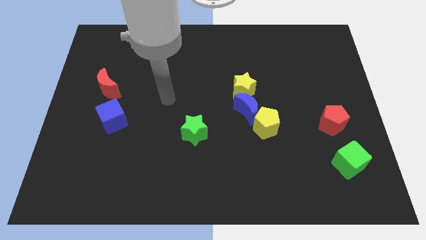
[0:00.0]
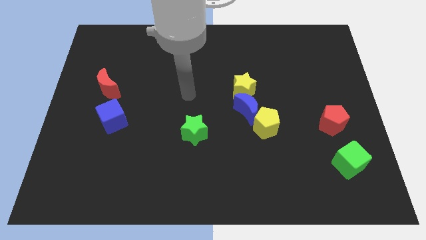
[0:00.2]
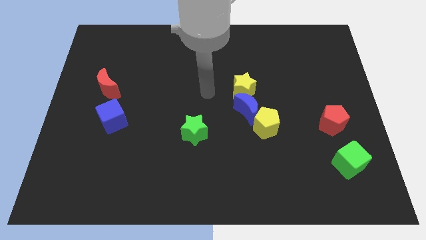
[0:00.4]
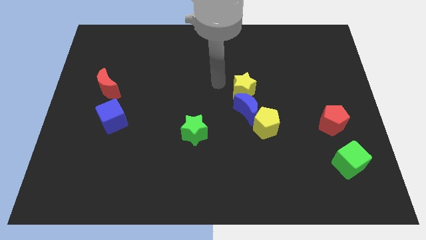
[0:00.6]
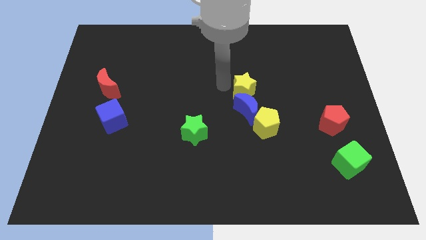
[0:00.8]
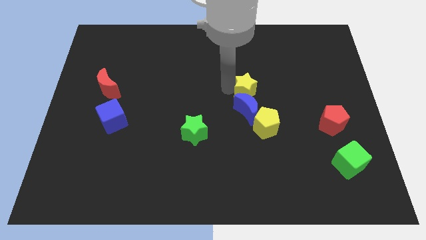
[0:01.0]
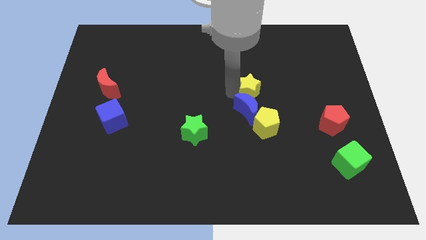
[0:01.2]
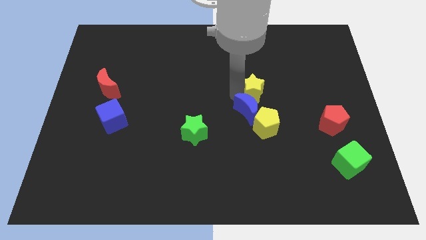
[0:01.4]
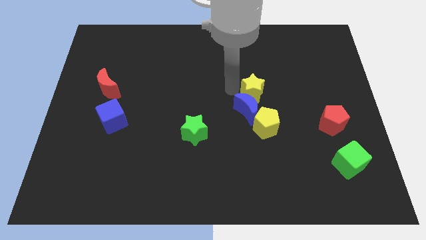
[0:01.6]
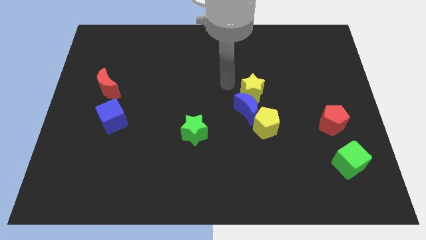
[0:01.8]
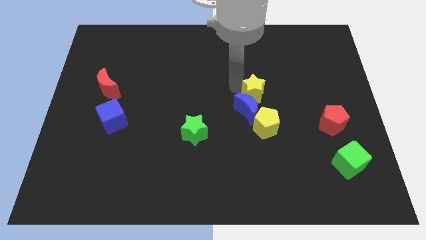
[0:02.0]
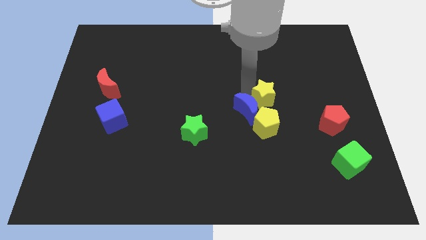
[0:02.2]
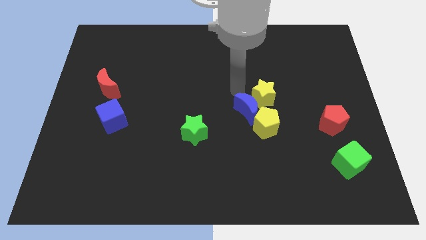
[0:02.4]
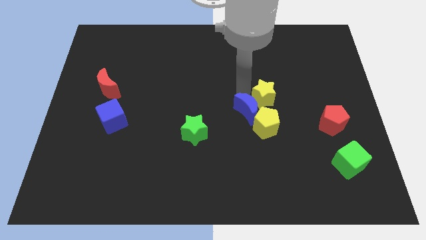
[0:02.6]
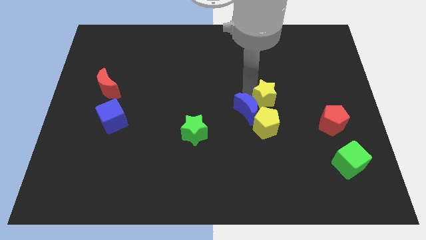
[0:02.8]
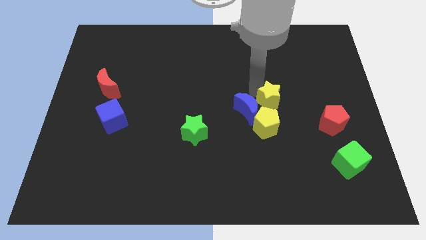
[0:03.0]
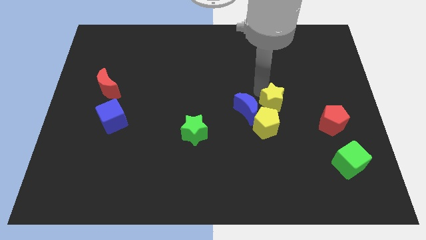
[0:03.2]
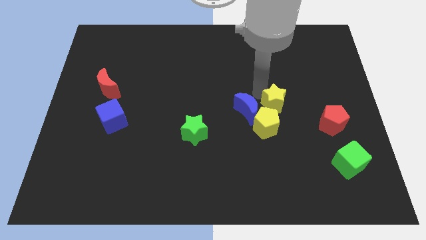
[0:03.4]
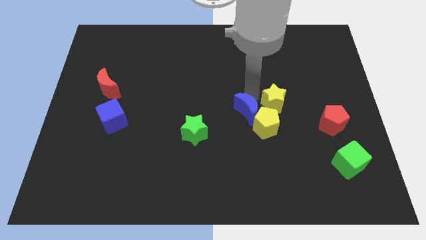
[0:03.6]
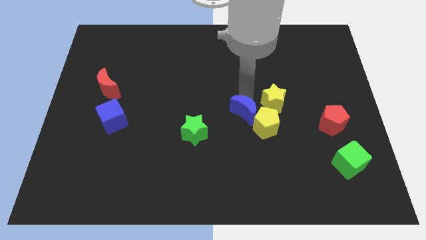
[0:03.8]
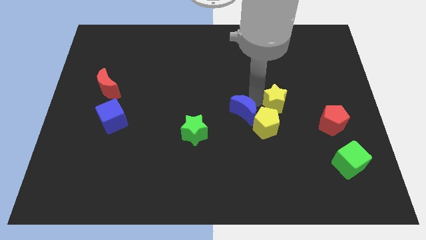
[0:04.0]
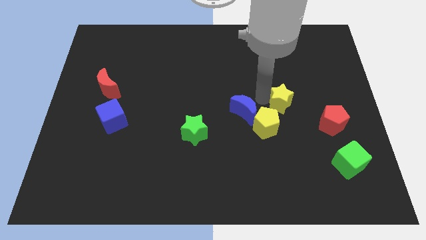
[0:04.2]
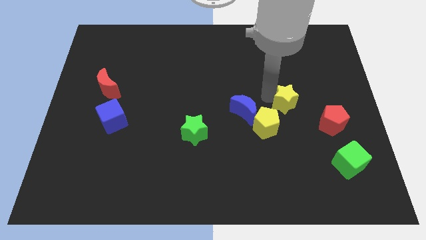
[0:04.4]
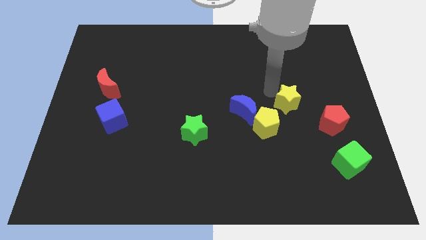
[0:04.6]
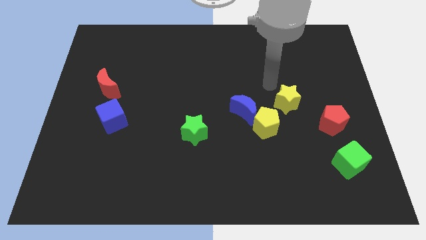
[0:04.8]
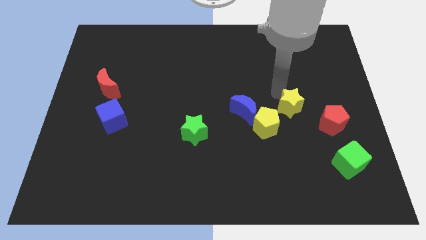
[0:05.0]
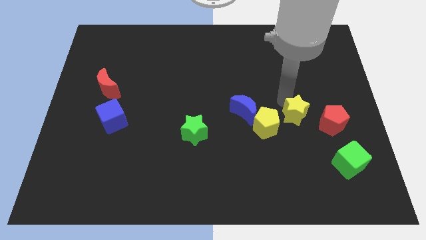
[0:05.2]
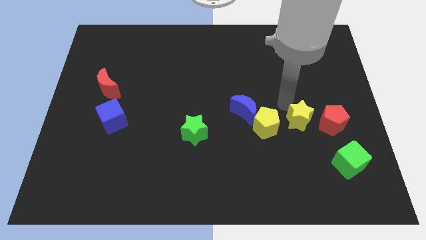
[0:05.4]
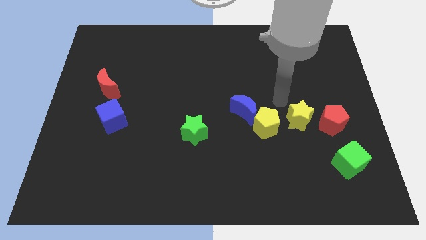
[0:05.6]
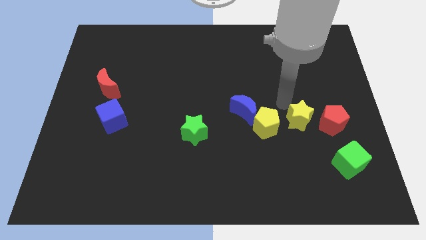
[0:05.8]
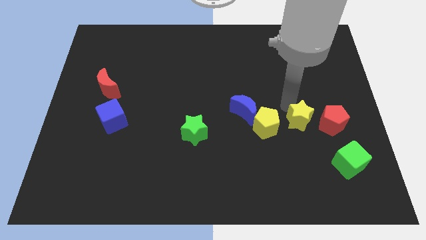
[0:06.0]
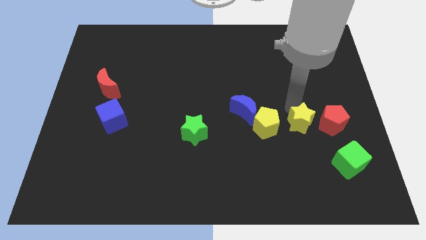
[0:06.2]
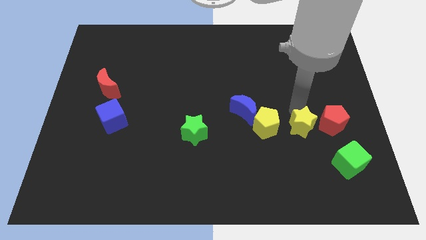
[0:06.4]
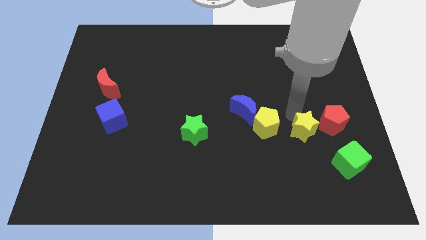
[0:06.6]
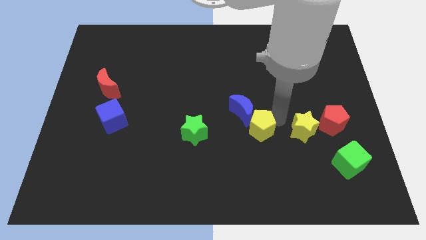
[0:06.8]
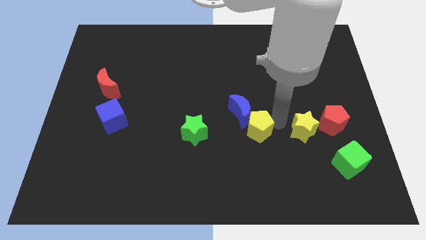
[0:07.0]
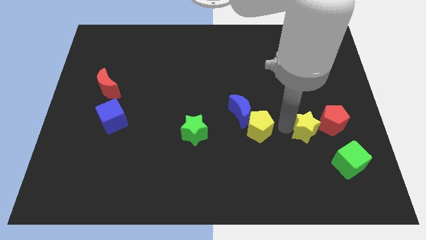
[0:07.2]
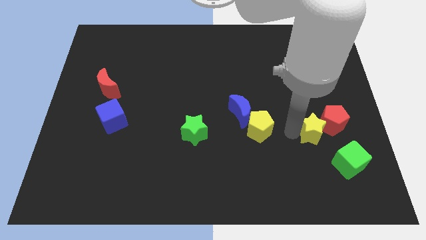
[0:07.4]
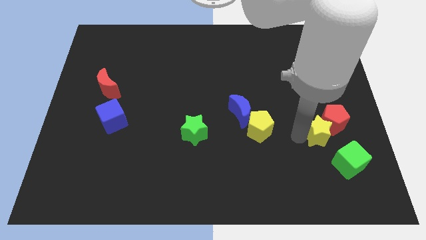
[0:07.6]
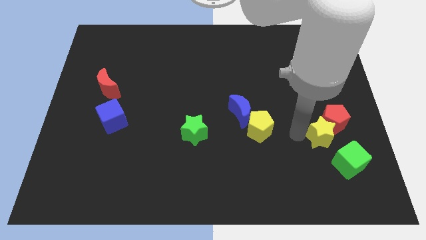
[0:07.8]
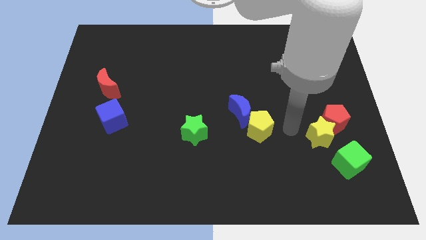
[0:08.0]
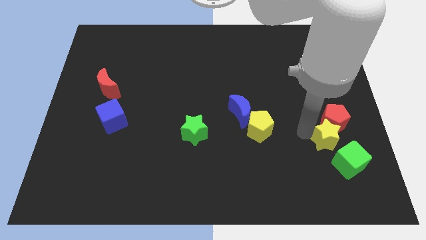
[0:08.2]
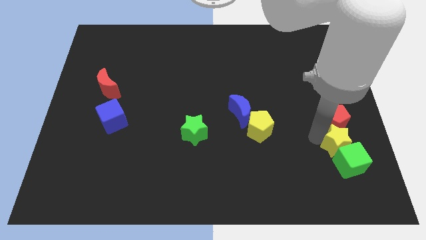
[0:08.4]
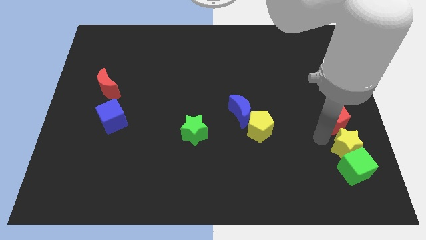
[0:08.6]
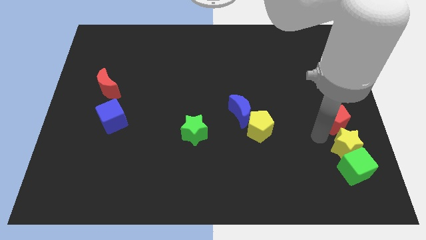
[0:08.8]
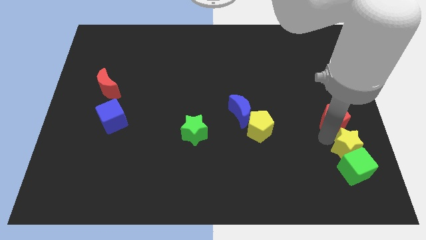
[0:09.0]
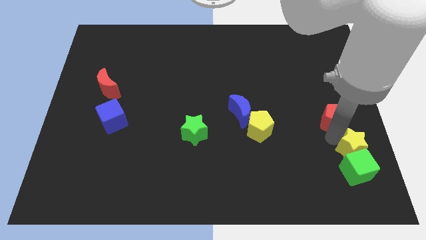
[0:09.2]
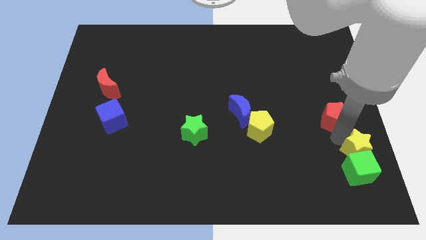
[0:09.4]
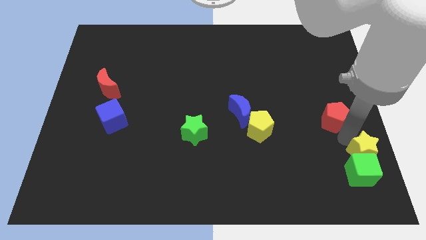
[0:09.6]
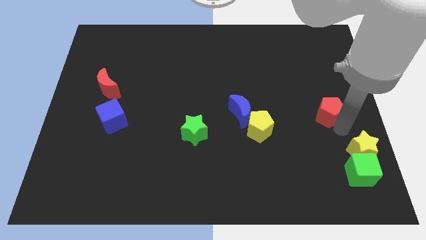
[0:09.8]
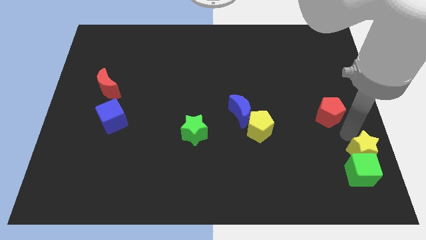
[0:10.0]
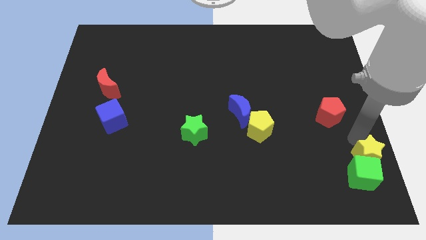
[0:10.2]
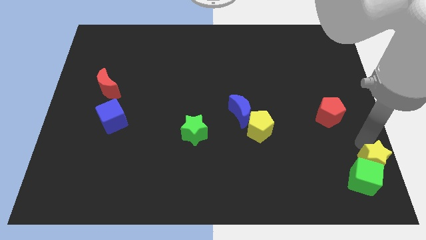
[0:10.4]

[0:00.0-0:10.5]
put the yellow star to the bottom right

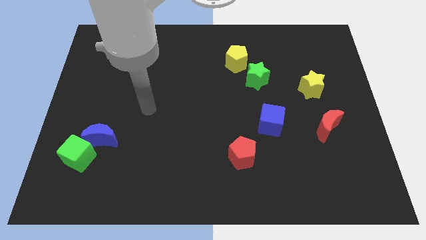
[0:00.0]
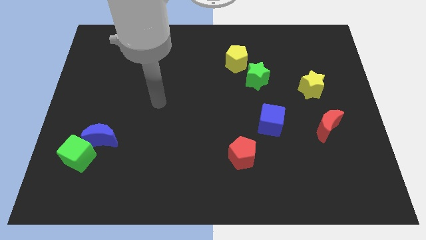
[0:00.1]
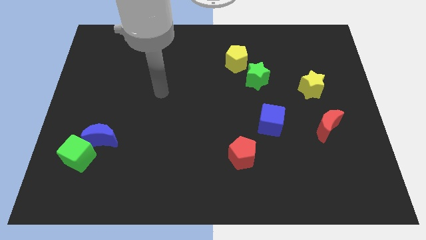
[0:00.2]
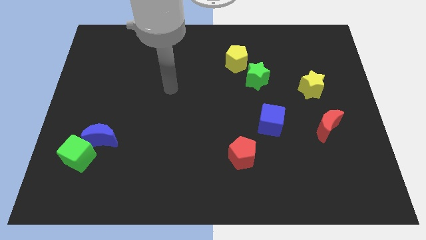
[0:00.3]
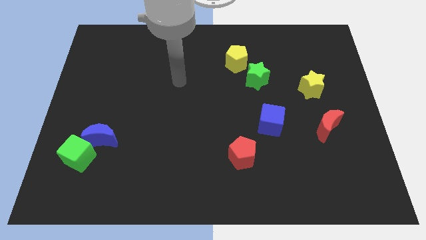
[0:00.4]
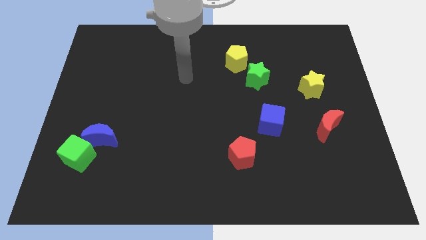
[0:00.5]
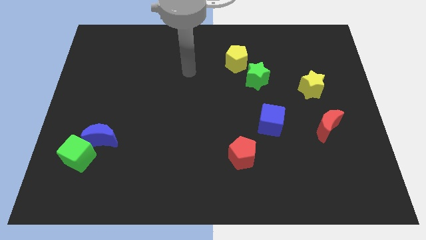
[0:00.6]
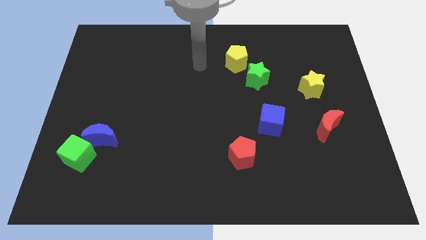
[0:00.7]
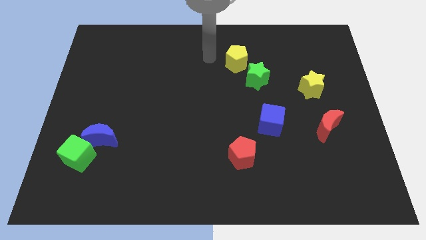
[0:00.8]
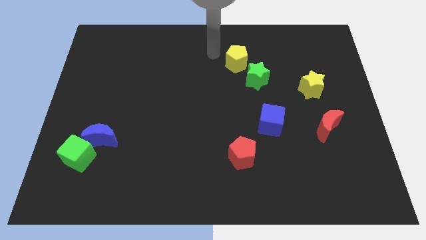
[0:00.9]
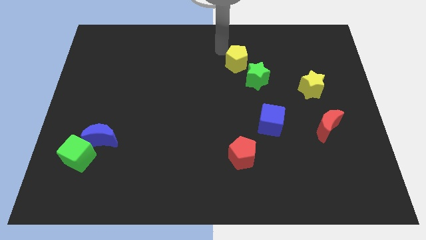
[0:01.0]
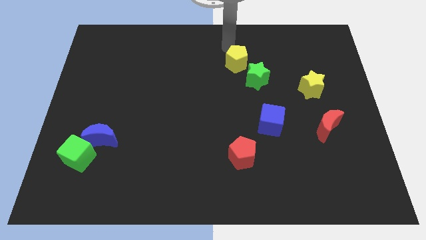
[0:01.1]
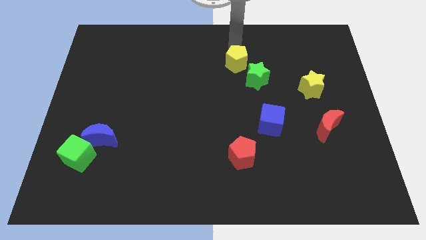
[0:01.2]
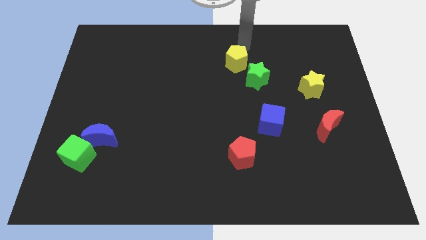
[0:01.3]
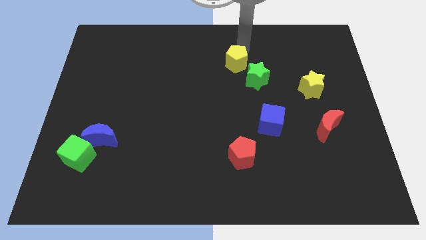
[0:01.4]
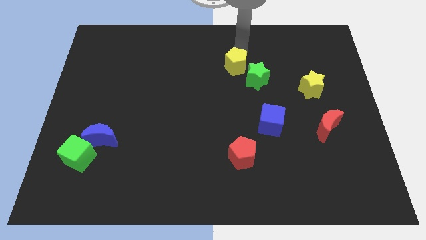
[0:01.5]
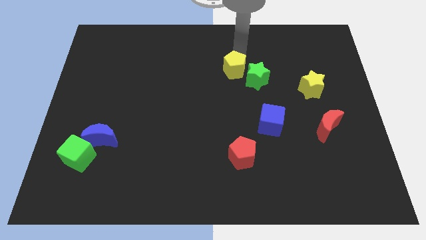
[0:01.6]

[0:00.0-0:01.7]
push the yellow pentagon to the center

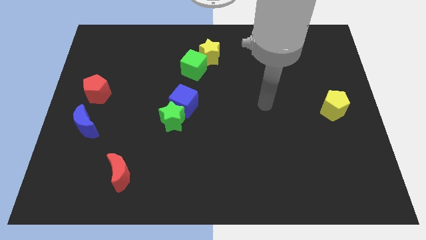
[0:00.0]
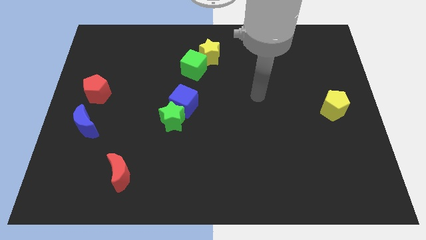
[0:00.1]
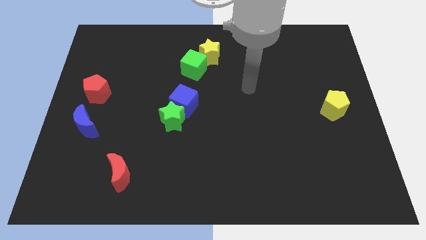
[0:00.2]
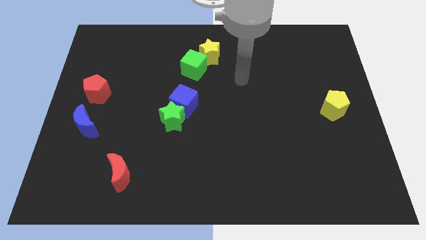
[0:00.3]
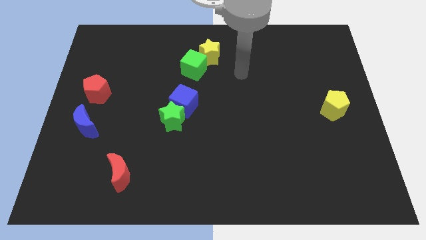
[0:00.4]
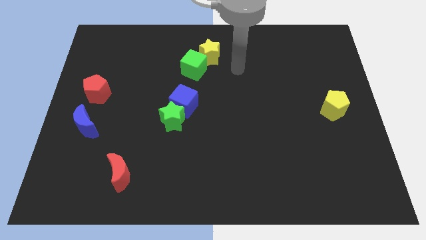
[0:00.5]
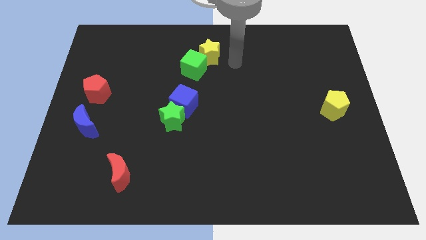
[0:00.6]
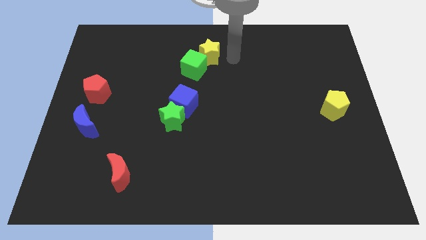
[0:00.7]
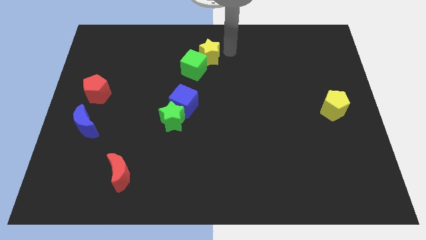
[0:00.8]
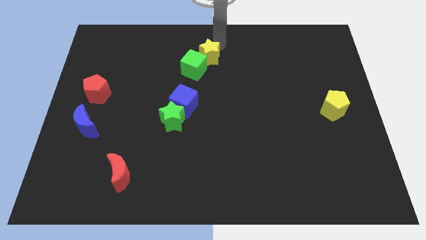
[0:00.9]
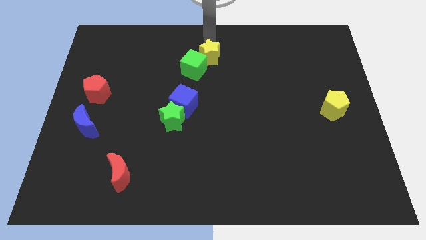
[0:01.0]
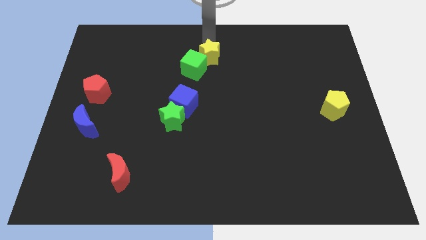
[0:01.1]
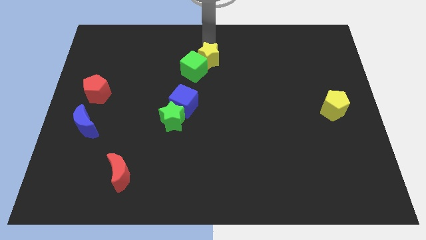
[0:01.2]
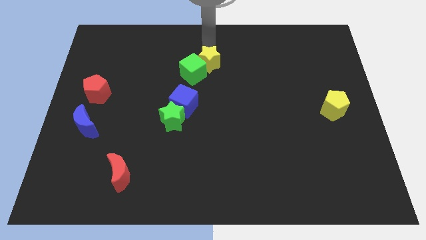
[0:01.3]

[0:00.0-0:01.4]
slide the yellow star to the middle
